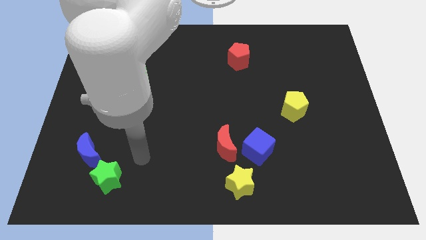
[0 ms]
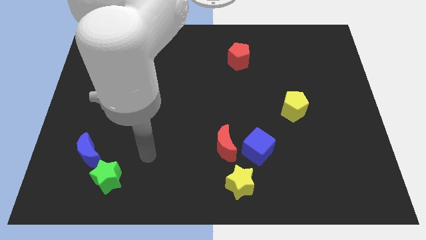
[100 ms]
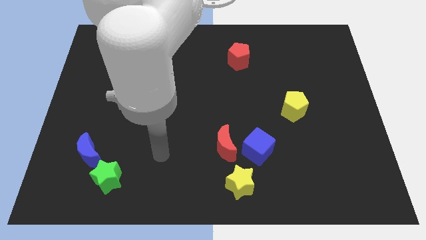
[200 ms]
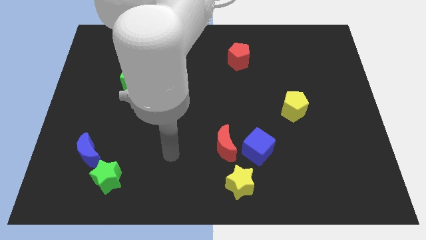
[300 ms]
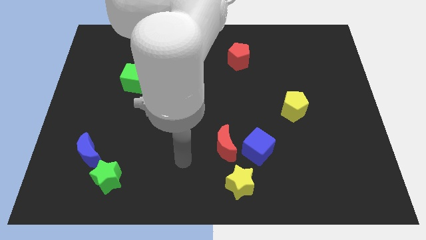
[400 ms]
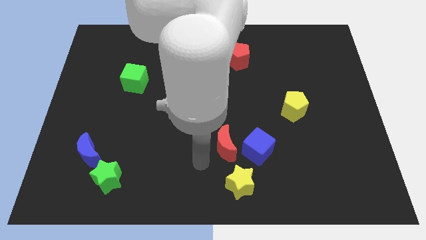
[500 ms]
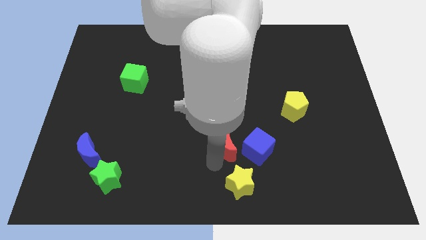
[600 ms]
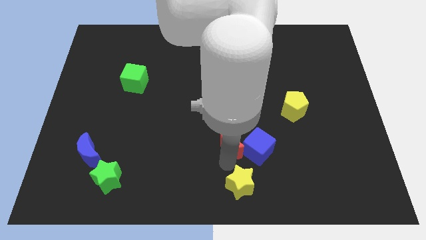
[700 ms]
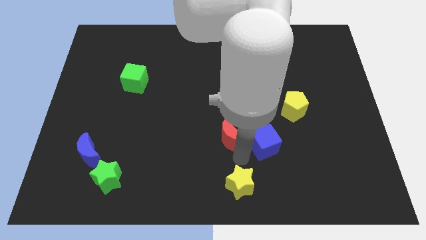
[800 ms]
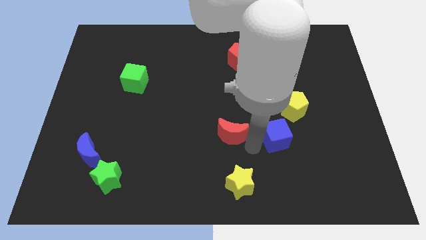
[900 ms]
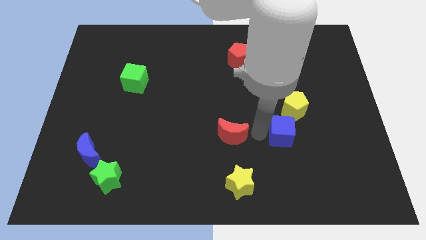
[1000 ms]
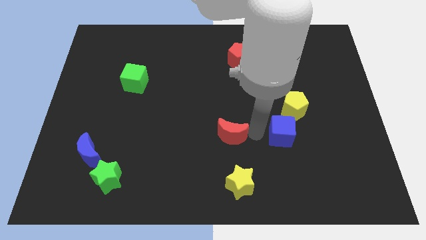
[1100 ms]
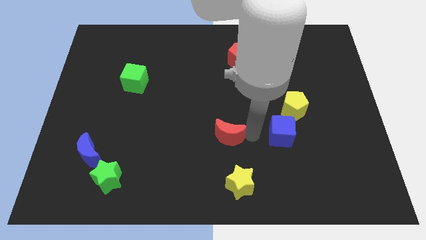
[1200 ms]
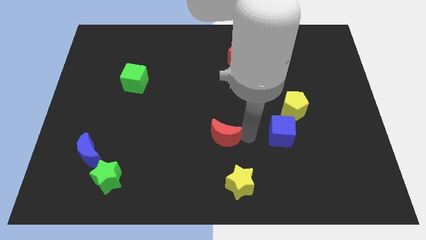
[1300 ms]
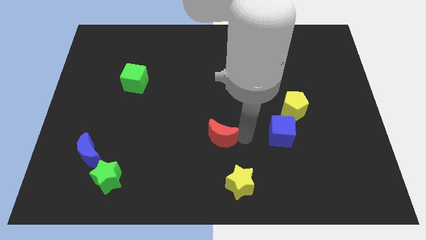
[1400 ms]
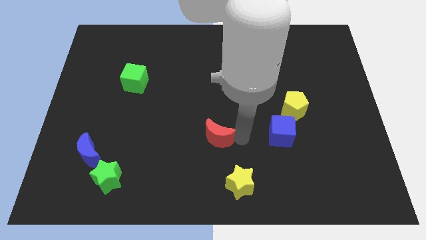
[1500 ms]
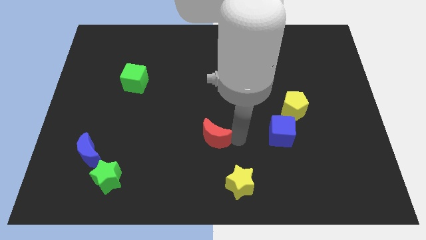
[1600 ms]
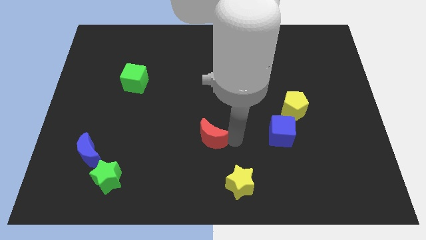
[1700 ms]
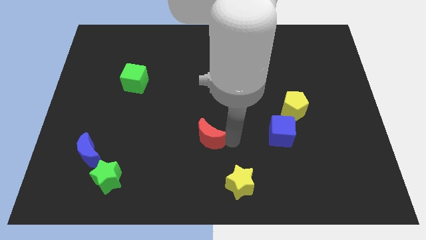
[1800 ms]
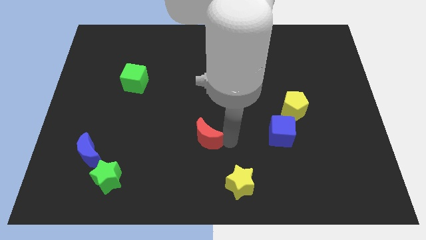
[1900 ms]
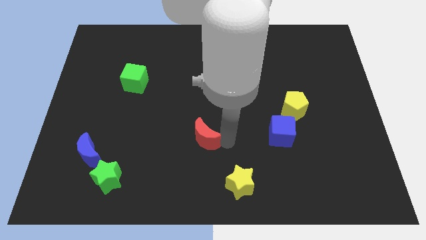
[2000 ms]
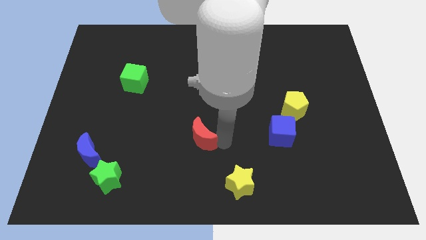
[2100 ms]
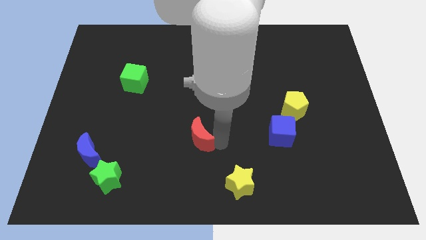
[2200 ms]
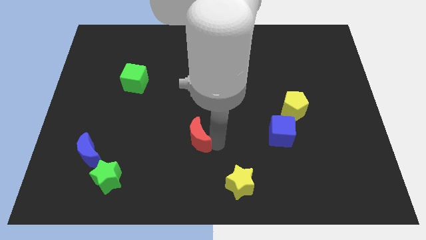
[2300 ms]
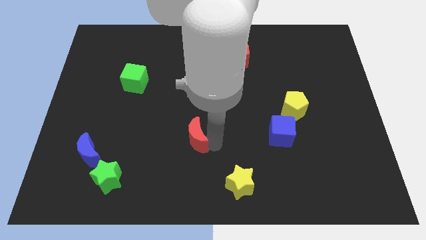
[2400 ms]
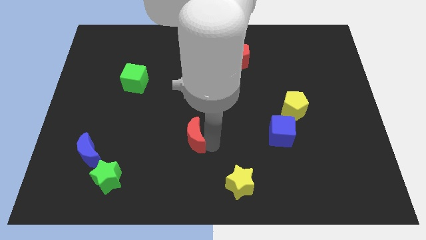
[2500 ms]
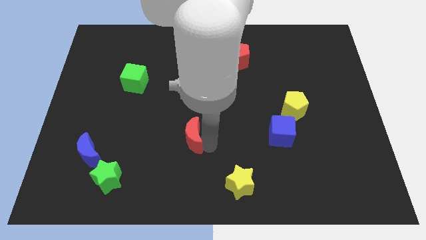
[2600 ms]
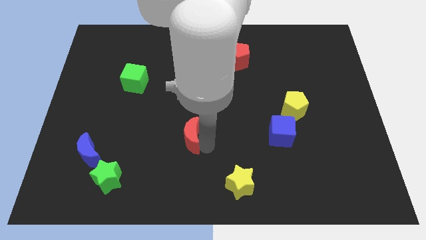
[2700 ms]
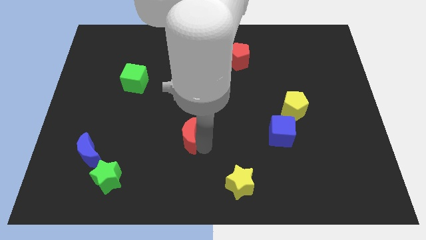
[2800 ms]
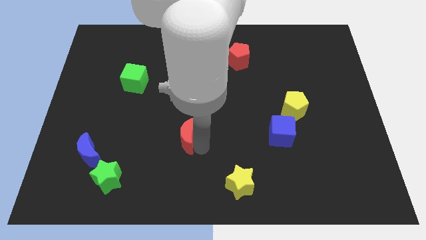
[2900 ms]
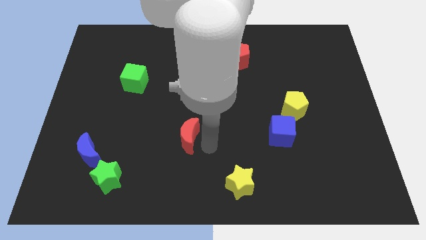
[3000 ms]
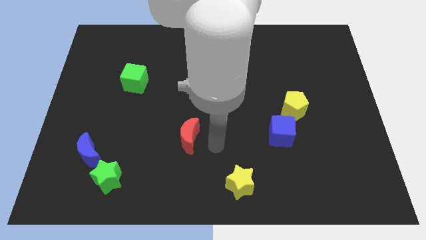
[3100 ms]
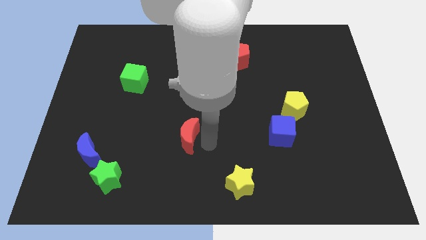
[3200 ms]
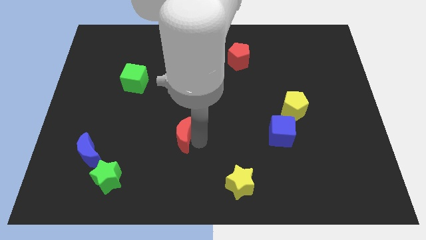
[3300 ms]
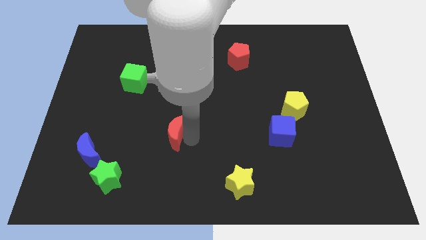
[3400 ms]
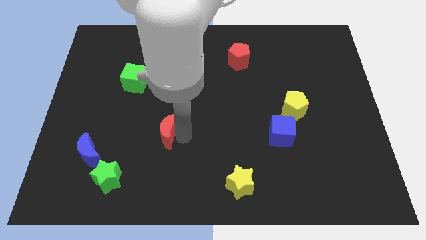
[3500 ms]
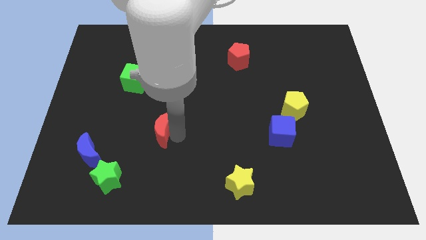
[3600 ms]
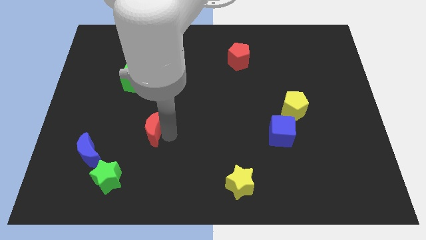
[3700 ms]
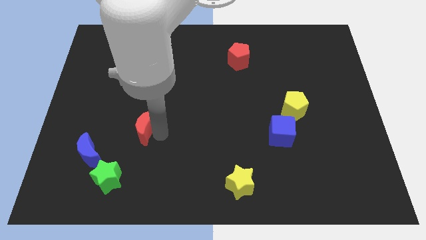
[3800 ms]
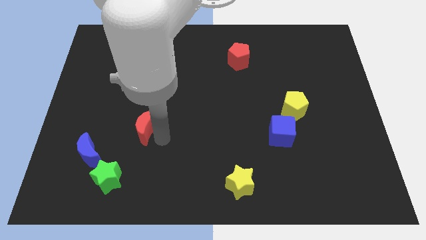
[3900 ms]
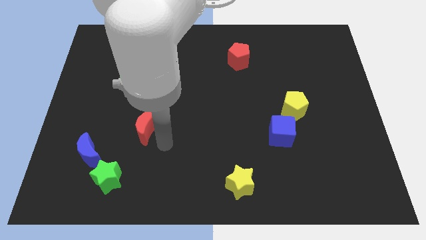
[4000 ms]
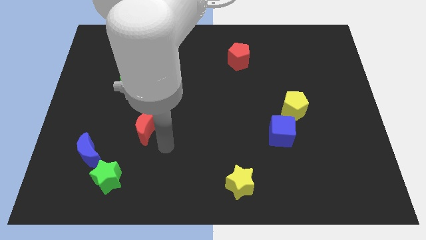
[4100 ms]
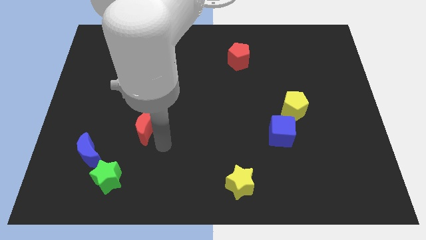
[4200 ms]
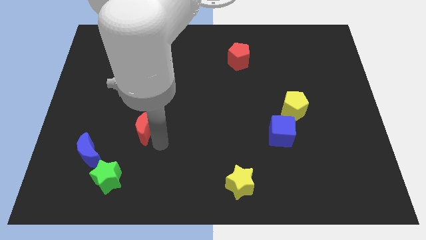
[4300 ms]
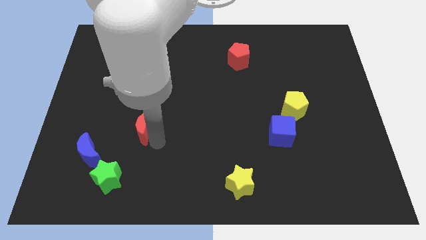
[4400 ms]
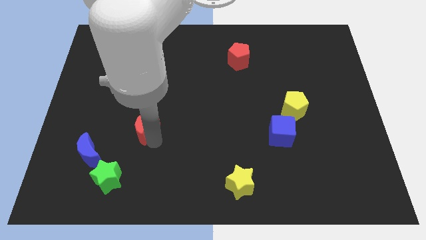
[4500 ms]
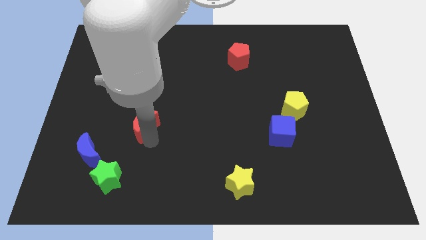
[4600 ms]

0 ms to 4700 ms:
slide the red moon to the bottom side of the green cube

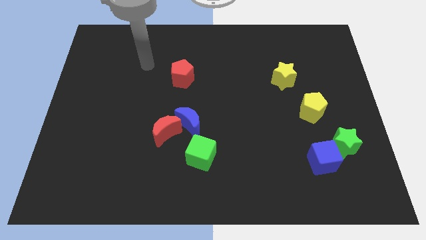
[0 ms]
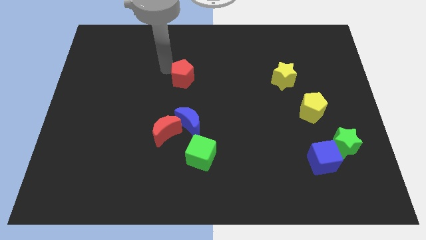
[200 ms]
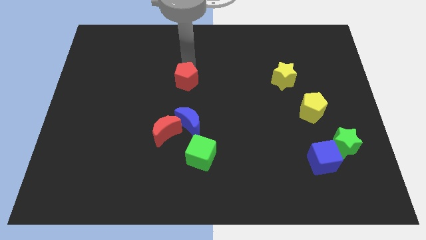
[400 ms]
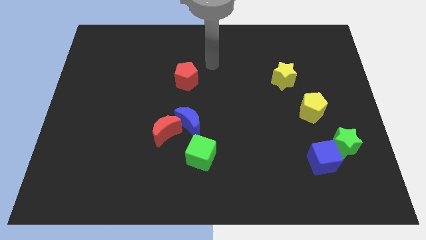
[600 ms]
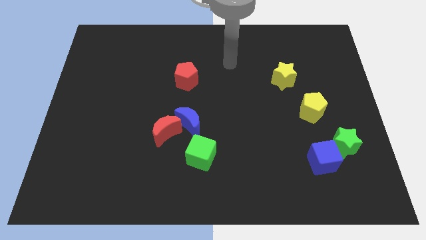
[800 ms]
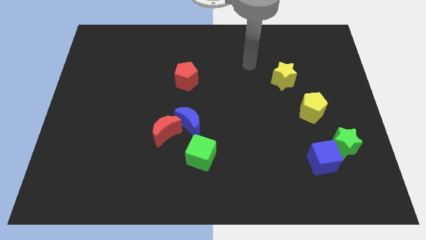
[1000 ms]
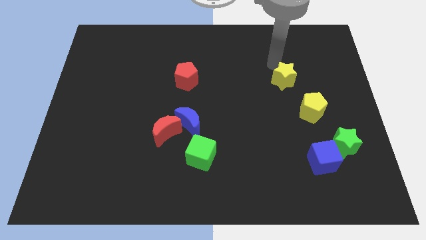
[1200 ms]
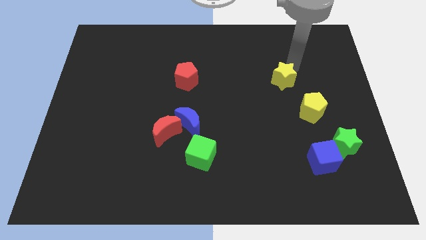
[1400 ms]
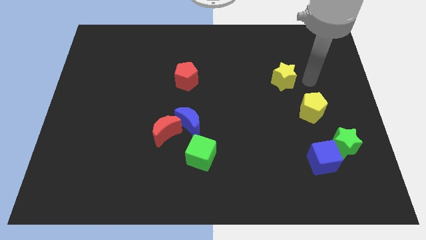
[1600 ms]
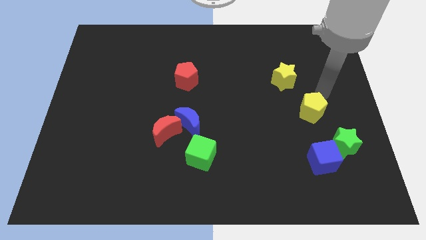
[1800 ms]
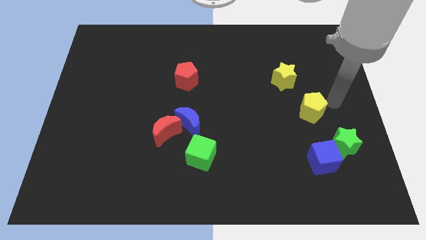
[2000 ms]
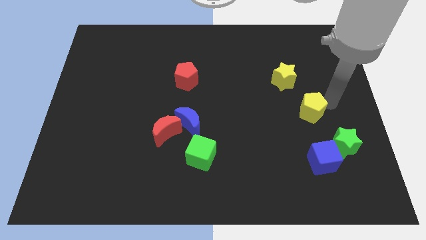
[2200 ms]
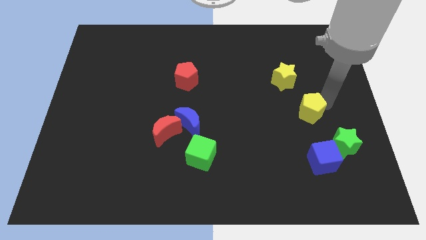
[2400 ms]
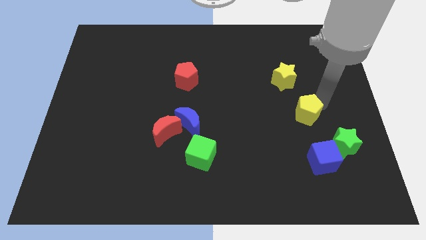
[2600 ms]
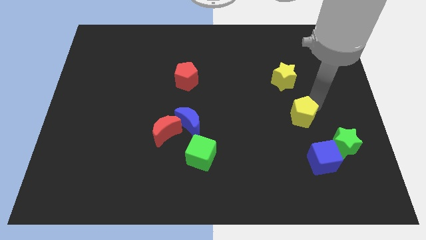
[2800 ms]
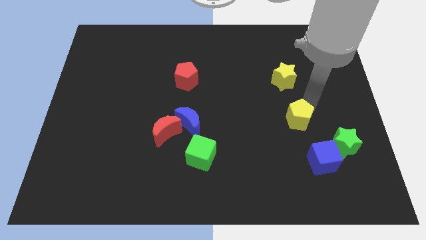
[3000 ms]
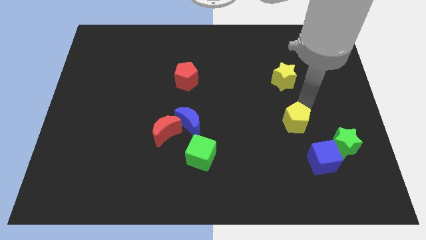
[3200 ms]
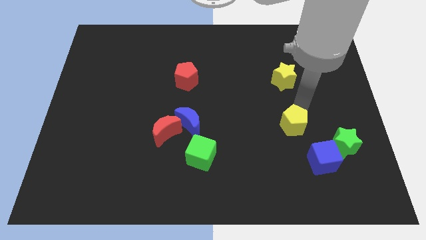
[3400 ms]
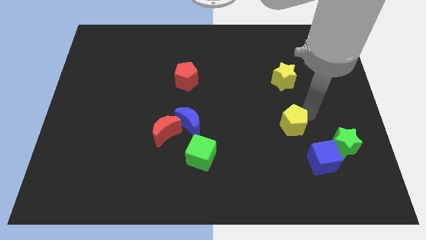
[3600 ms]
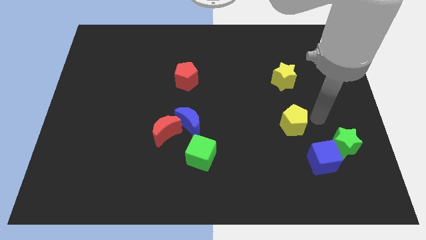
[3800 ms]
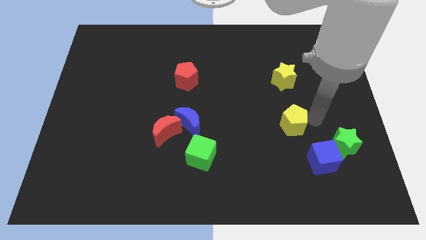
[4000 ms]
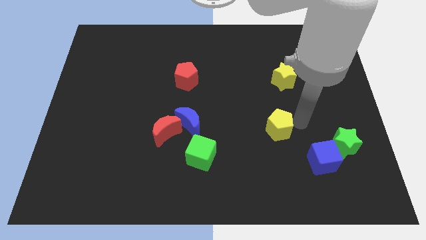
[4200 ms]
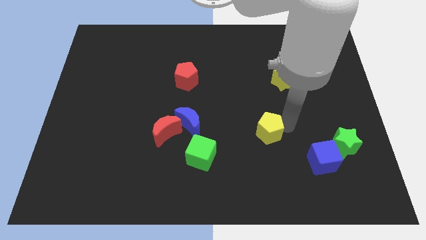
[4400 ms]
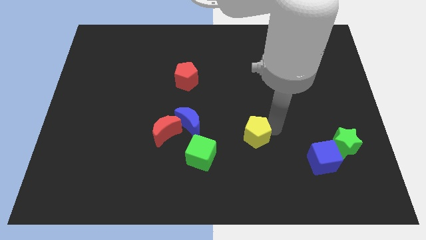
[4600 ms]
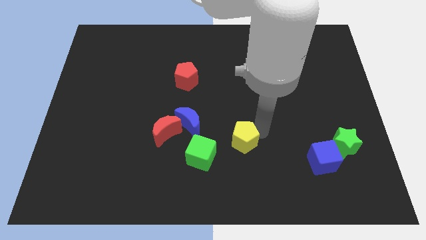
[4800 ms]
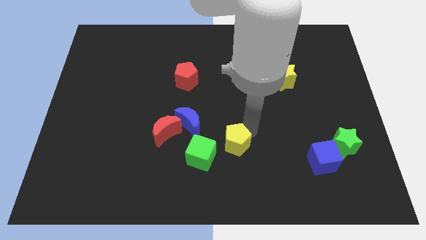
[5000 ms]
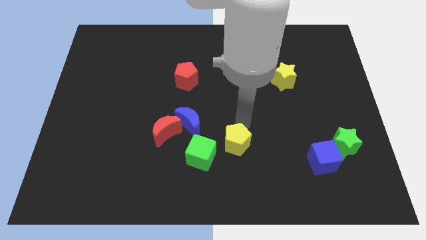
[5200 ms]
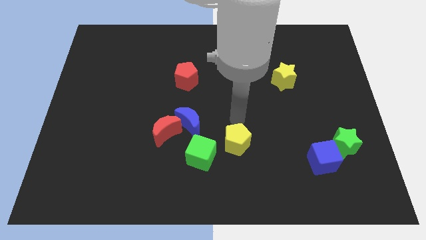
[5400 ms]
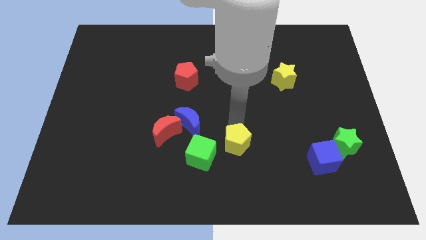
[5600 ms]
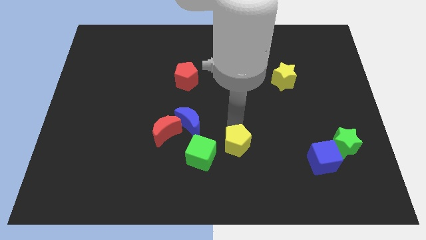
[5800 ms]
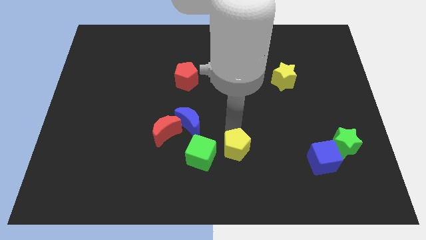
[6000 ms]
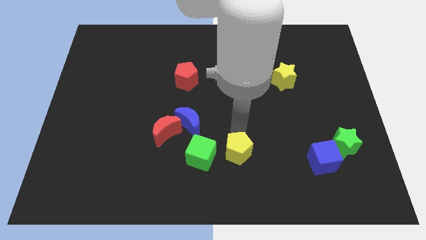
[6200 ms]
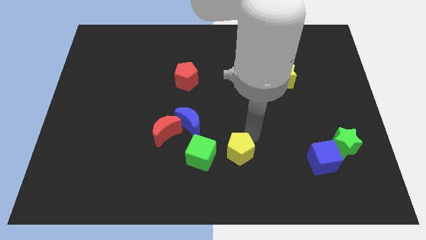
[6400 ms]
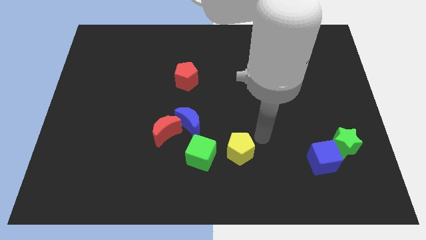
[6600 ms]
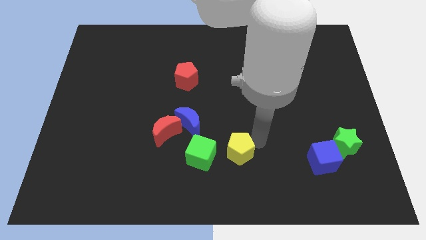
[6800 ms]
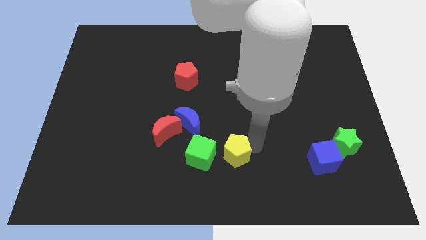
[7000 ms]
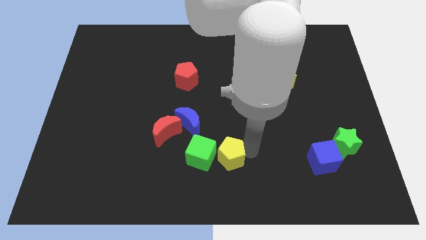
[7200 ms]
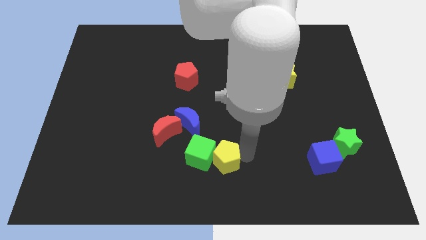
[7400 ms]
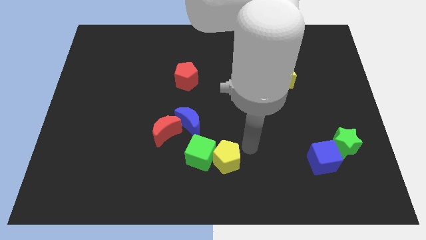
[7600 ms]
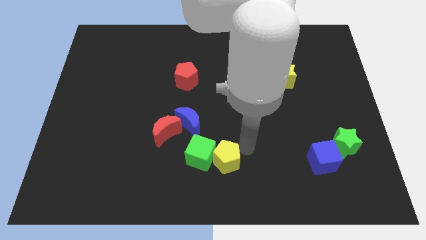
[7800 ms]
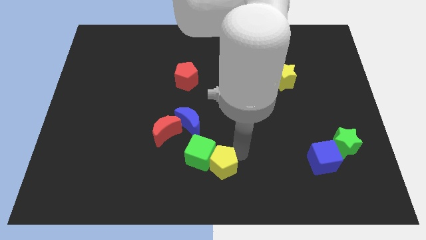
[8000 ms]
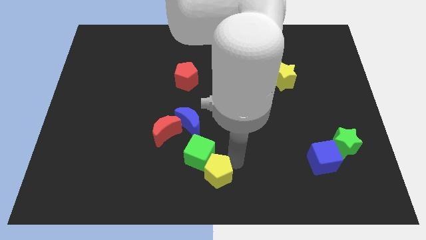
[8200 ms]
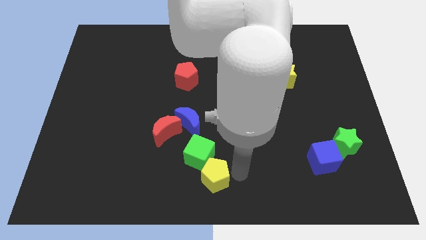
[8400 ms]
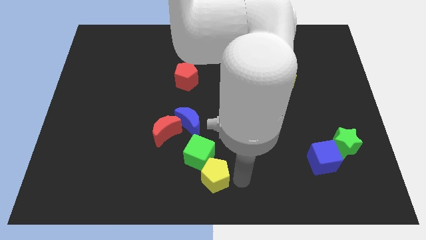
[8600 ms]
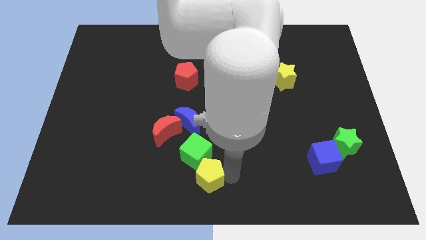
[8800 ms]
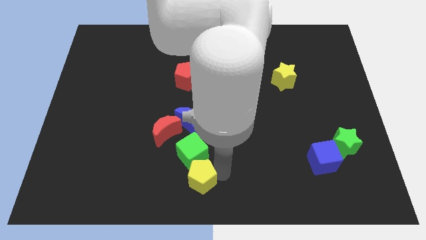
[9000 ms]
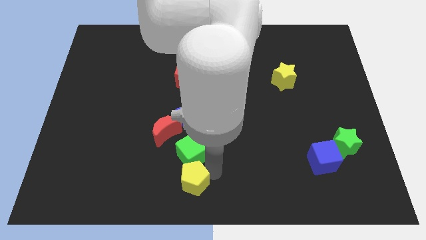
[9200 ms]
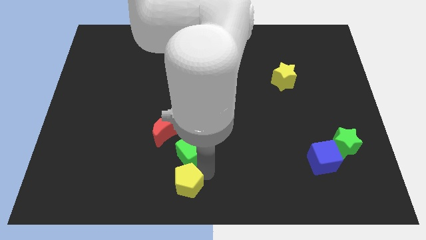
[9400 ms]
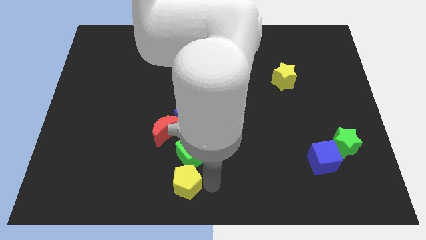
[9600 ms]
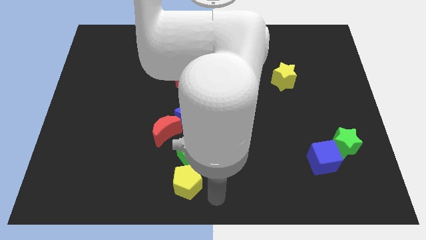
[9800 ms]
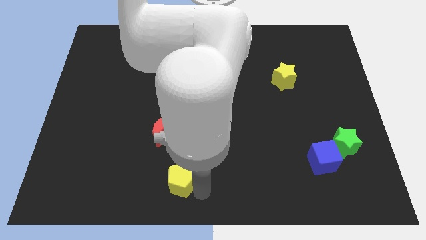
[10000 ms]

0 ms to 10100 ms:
put the yellow pentagon below the red moon
